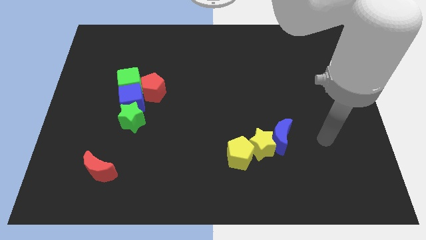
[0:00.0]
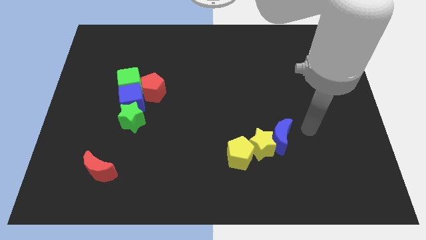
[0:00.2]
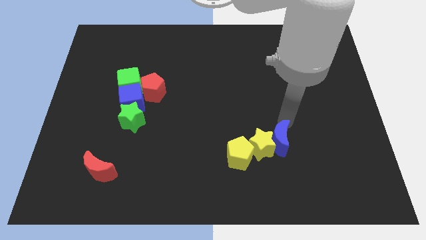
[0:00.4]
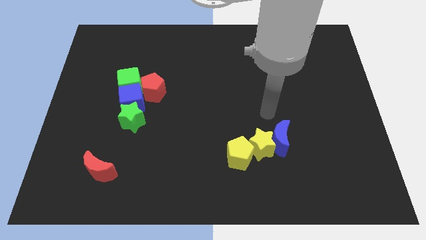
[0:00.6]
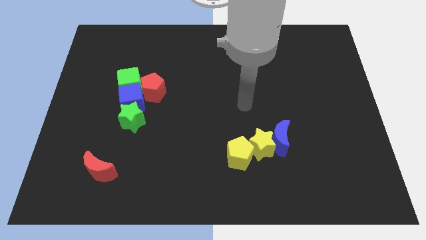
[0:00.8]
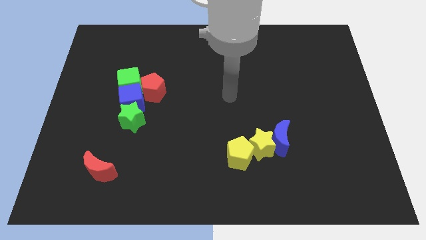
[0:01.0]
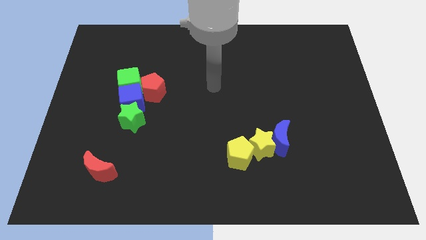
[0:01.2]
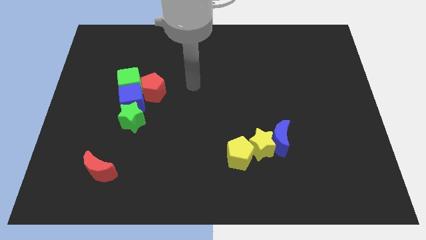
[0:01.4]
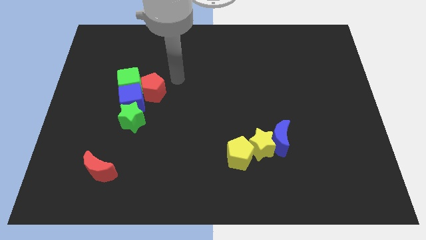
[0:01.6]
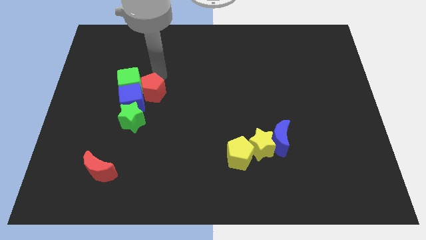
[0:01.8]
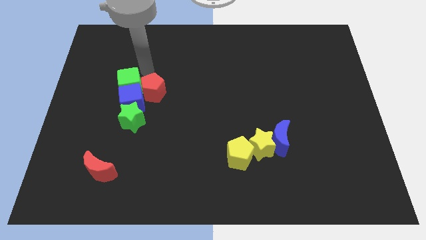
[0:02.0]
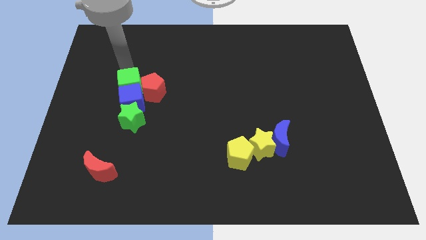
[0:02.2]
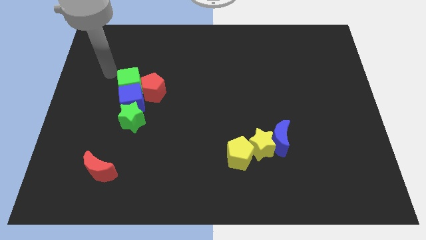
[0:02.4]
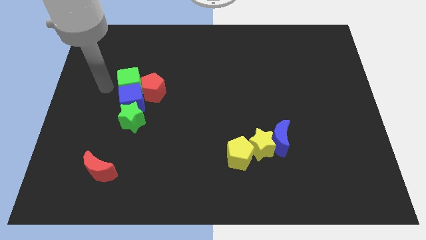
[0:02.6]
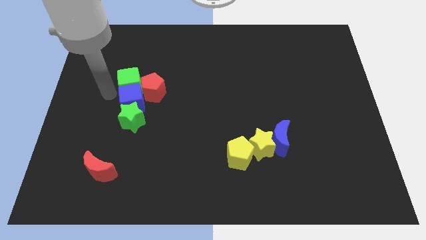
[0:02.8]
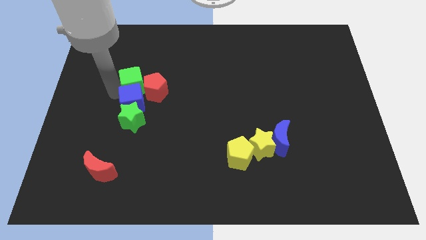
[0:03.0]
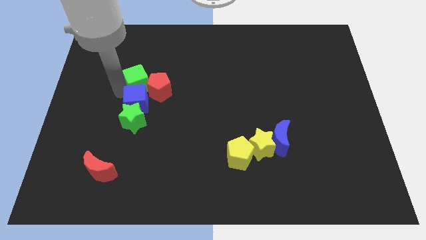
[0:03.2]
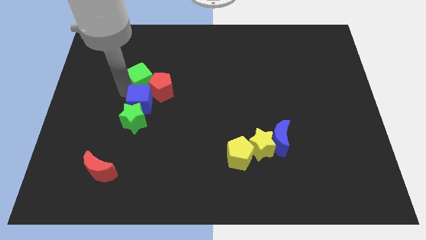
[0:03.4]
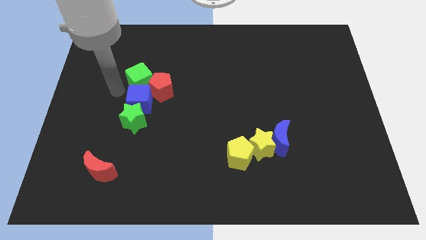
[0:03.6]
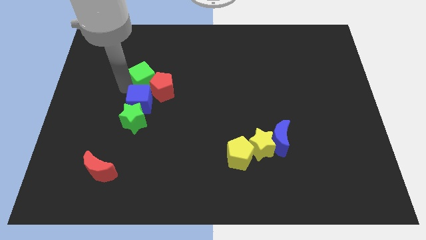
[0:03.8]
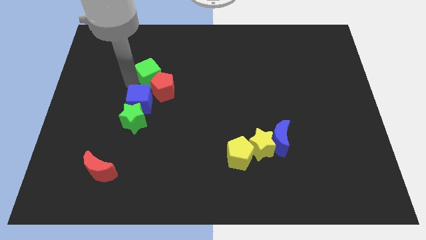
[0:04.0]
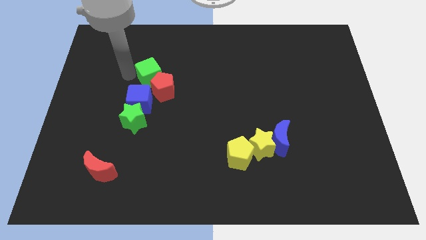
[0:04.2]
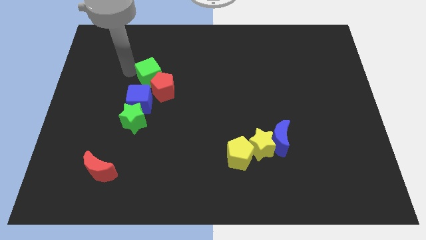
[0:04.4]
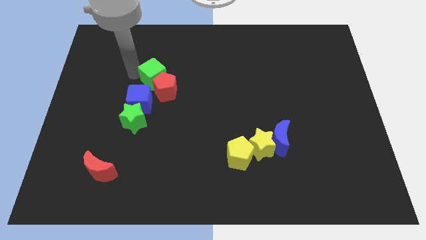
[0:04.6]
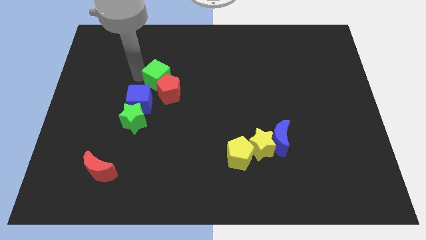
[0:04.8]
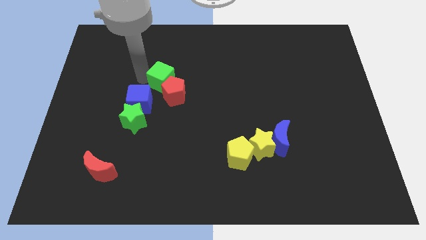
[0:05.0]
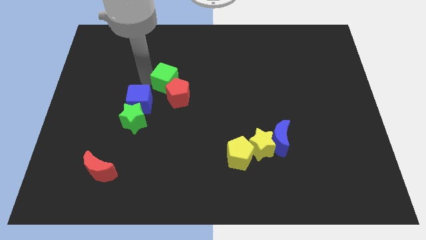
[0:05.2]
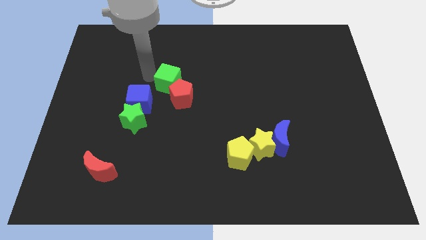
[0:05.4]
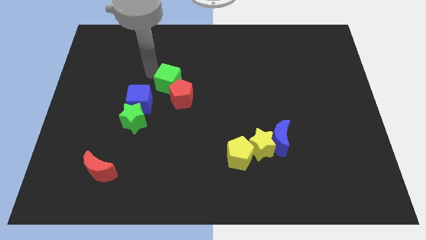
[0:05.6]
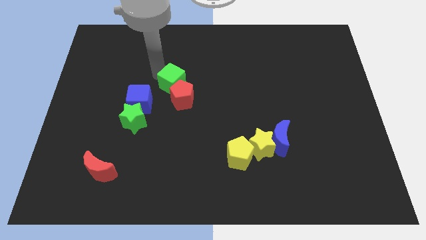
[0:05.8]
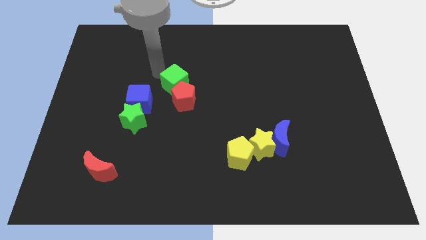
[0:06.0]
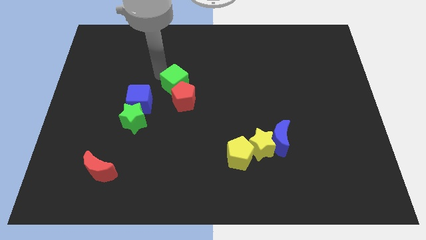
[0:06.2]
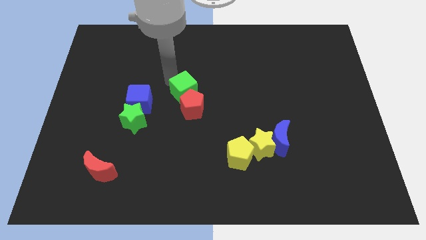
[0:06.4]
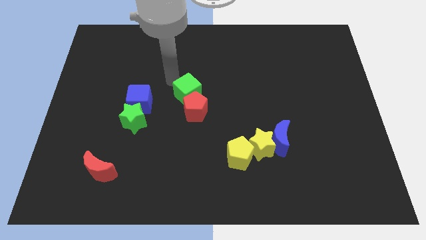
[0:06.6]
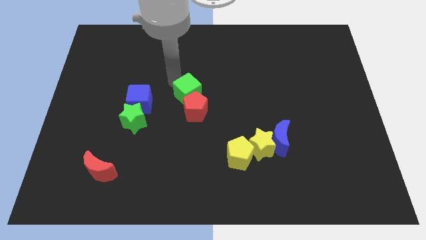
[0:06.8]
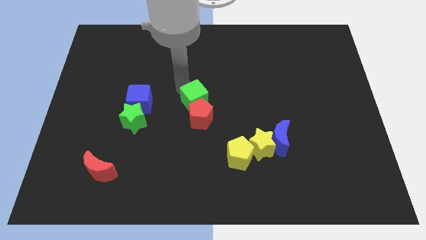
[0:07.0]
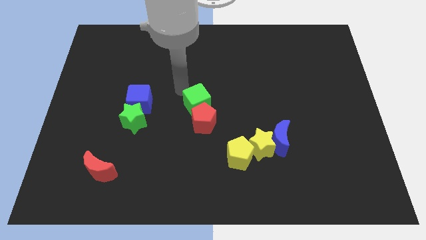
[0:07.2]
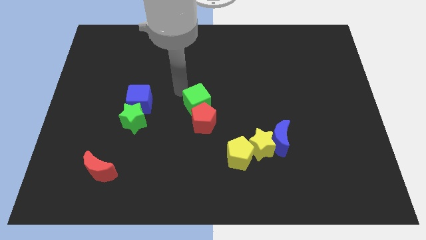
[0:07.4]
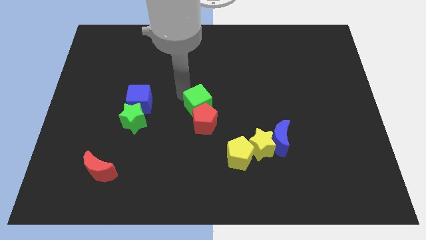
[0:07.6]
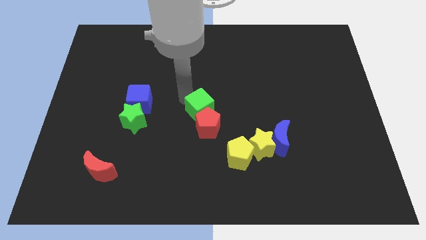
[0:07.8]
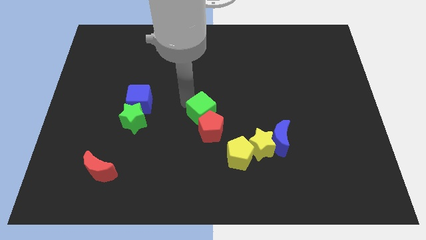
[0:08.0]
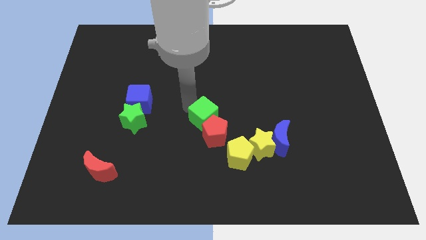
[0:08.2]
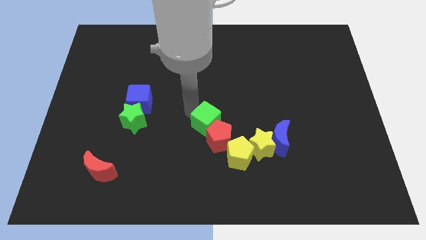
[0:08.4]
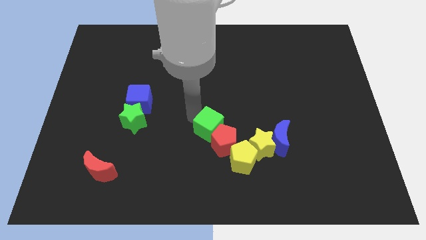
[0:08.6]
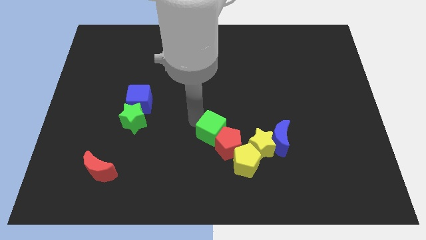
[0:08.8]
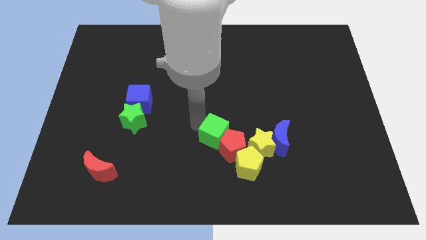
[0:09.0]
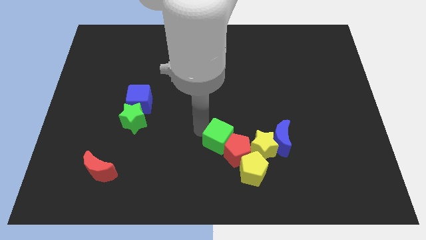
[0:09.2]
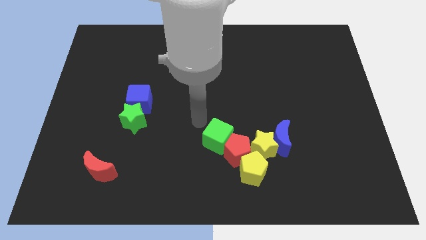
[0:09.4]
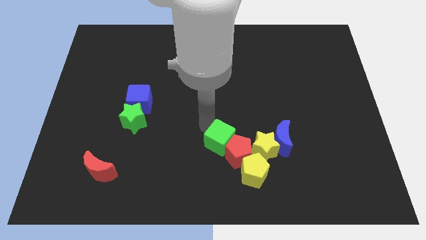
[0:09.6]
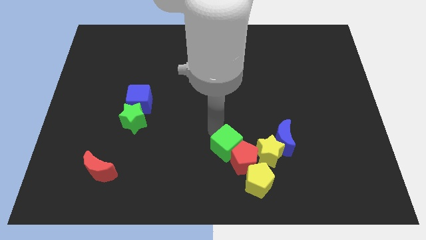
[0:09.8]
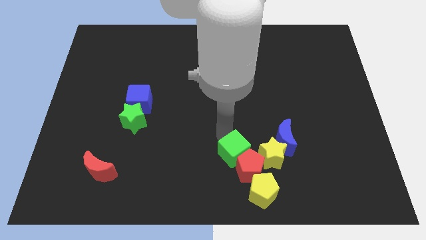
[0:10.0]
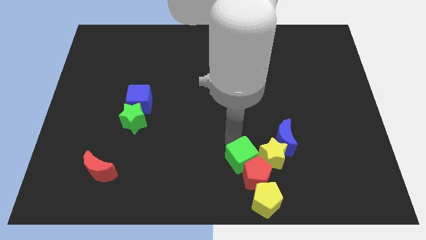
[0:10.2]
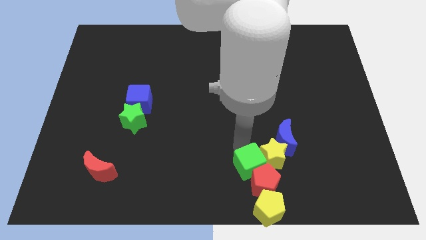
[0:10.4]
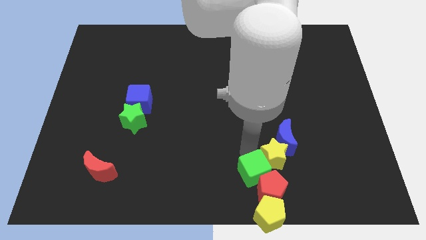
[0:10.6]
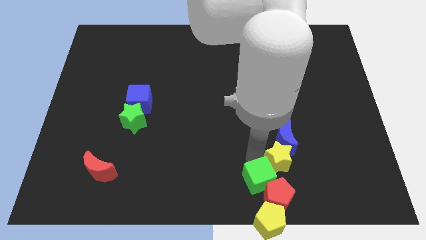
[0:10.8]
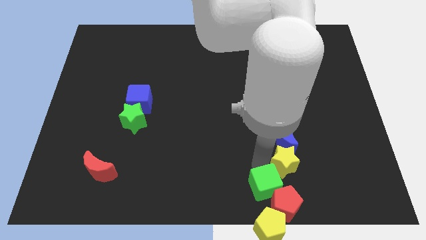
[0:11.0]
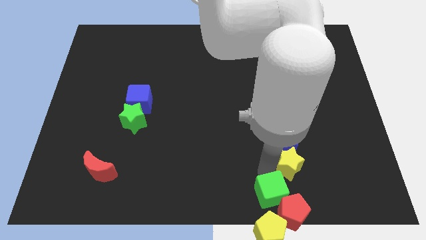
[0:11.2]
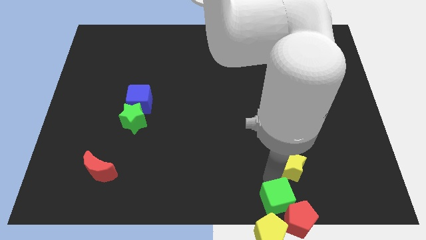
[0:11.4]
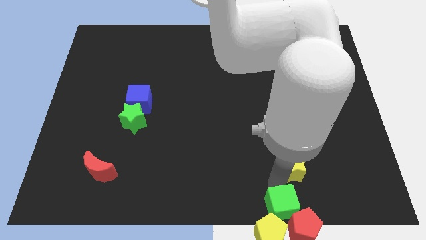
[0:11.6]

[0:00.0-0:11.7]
put the green cube to the yellow pentagon

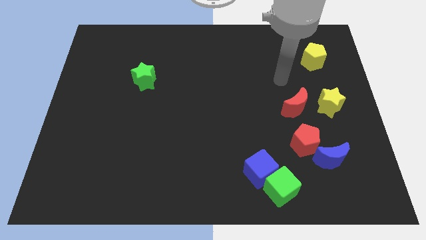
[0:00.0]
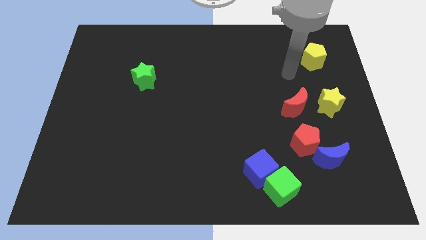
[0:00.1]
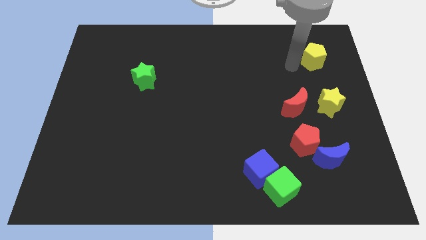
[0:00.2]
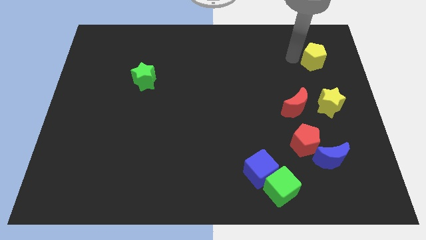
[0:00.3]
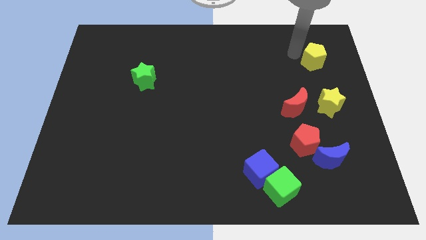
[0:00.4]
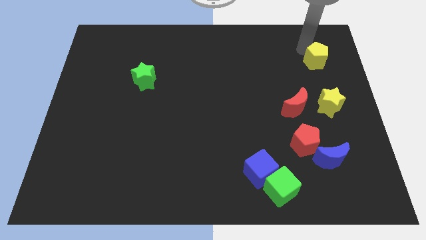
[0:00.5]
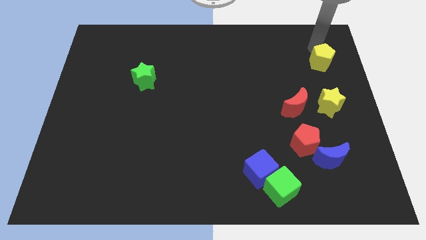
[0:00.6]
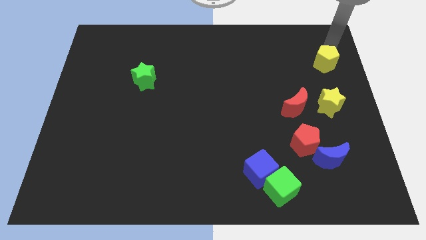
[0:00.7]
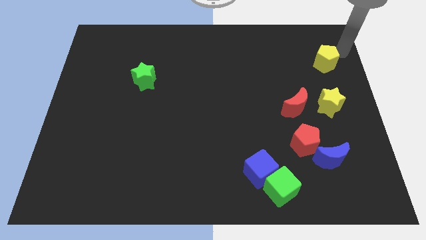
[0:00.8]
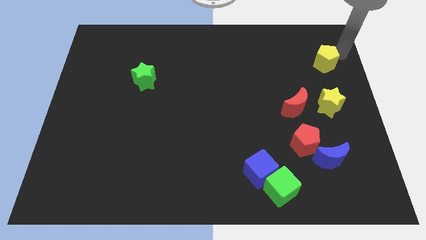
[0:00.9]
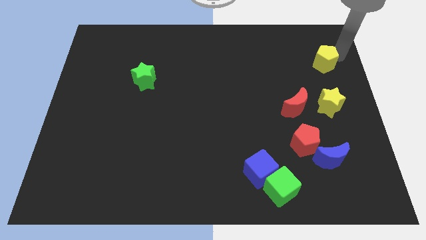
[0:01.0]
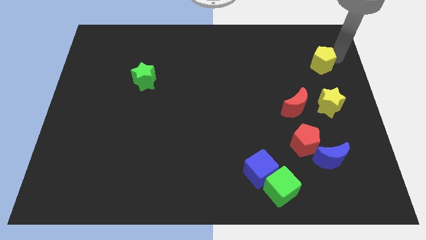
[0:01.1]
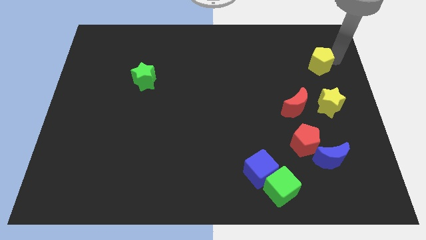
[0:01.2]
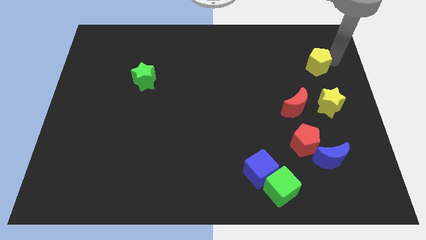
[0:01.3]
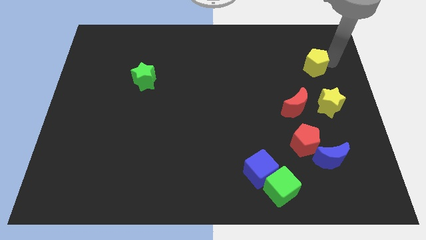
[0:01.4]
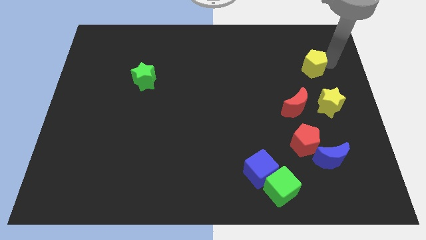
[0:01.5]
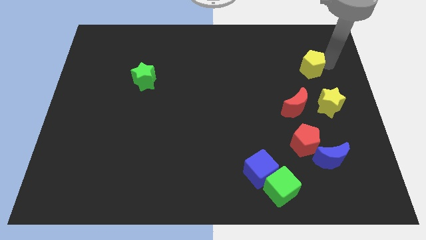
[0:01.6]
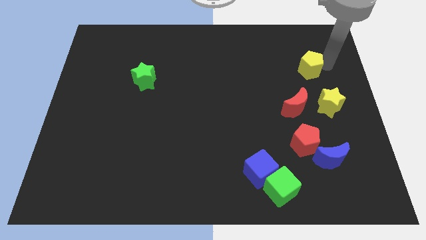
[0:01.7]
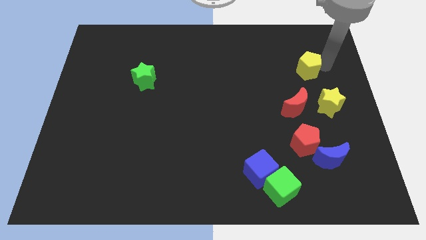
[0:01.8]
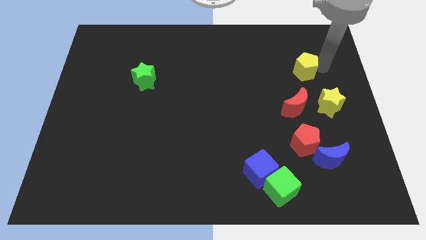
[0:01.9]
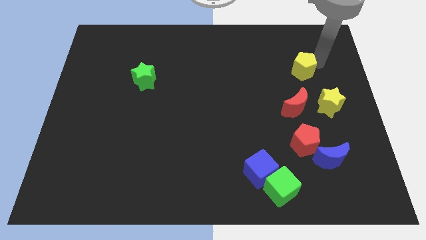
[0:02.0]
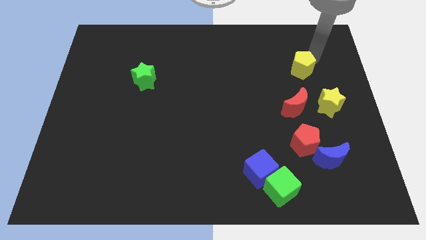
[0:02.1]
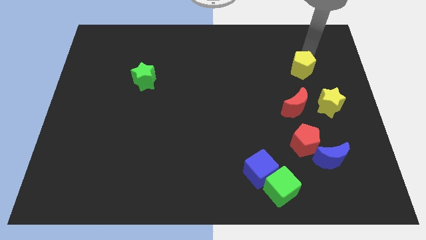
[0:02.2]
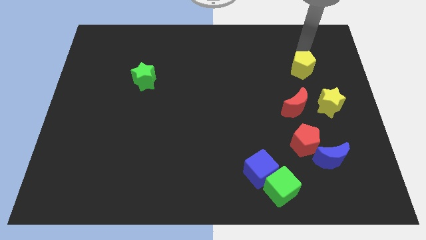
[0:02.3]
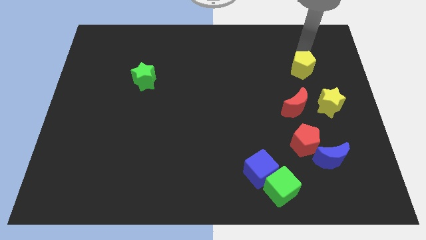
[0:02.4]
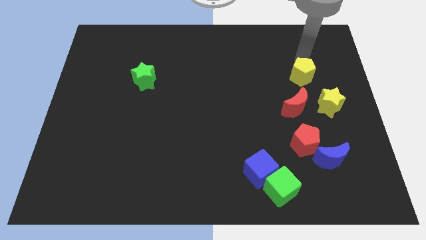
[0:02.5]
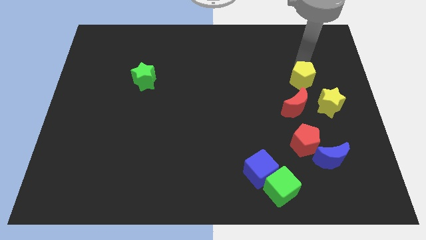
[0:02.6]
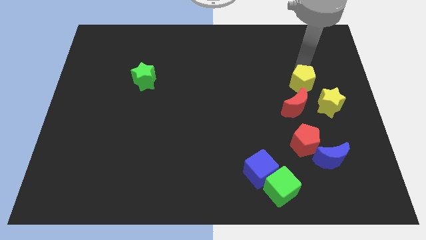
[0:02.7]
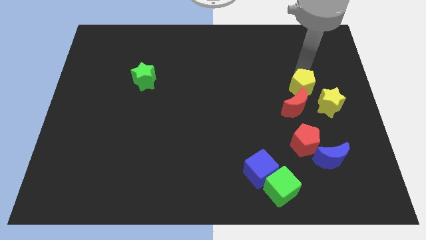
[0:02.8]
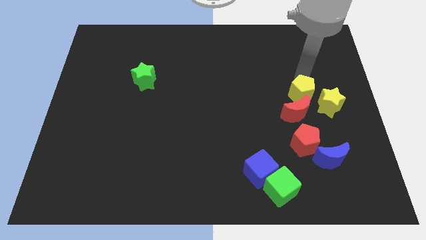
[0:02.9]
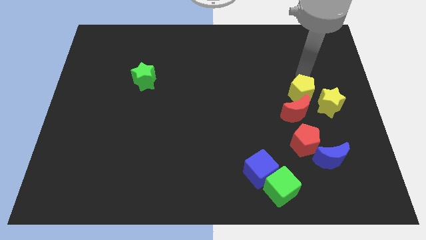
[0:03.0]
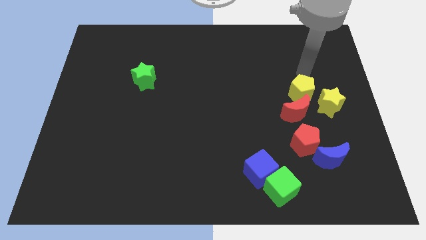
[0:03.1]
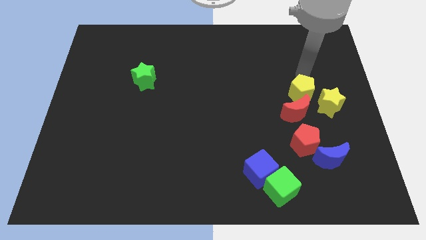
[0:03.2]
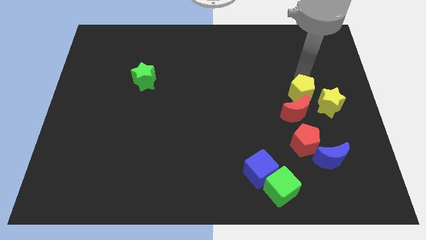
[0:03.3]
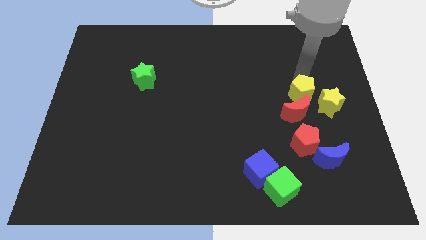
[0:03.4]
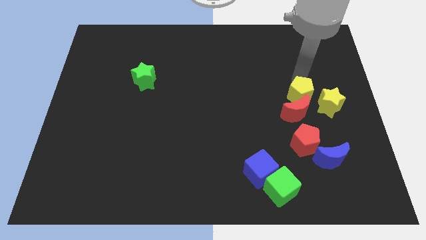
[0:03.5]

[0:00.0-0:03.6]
move the yellow pentagon close to the red moon
